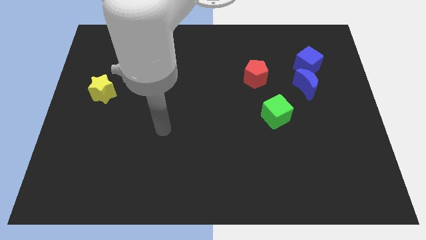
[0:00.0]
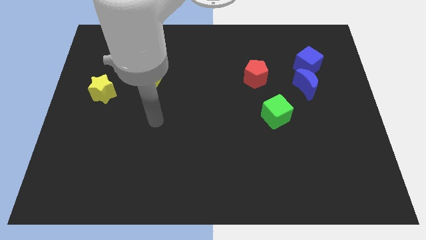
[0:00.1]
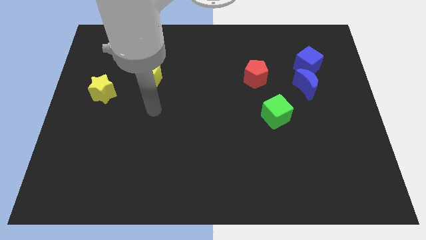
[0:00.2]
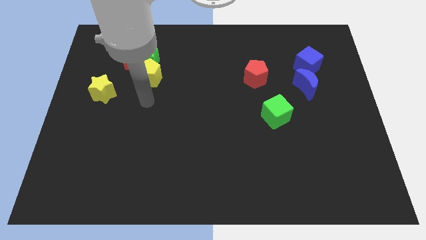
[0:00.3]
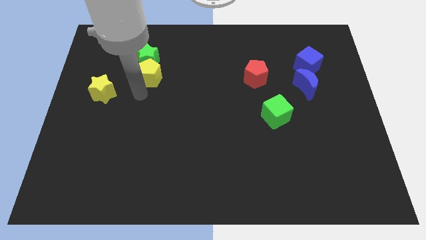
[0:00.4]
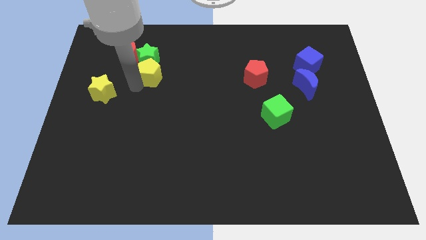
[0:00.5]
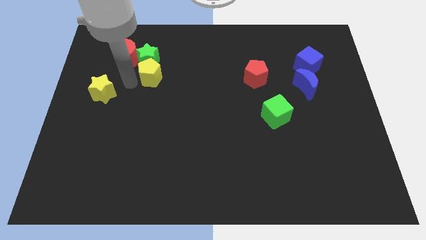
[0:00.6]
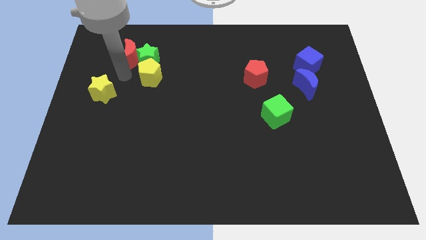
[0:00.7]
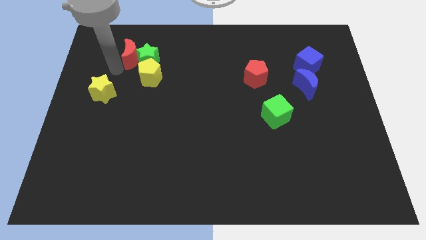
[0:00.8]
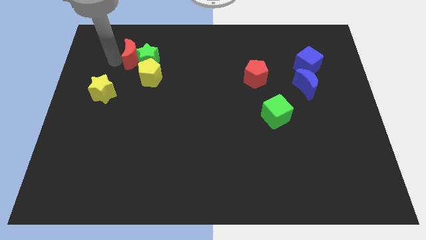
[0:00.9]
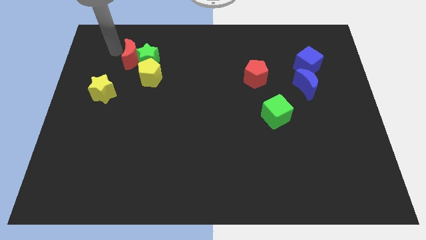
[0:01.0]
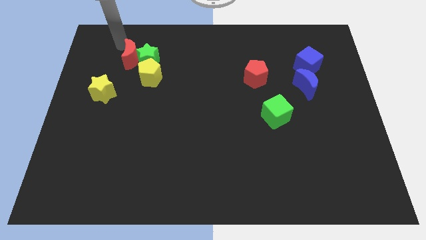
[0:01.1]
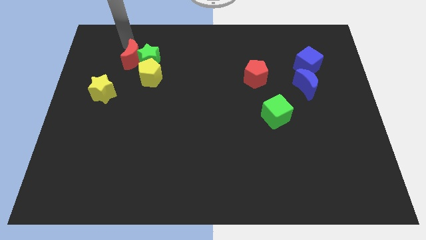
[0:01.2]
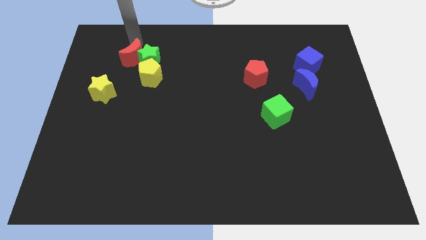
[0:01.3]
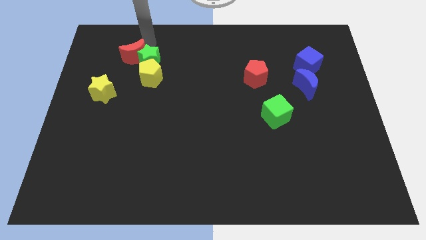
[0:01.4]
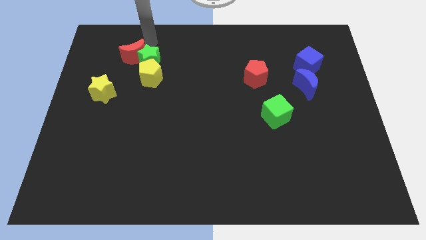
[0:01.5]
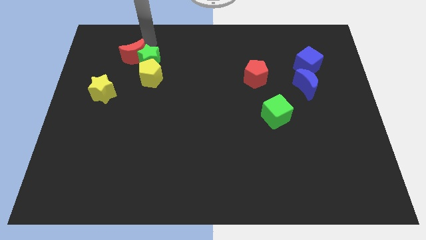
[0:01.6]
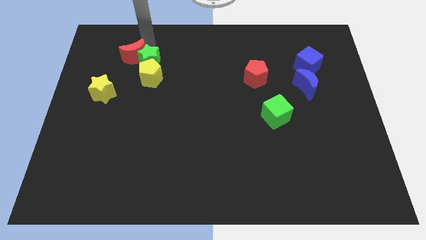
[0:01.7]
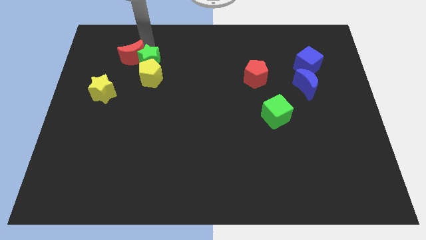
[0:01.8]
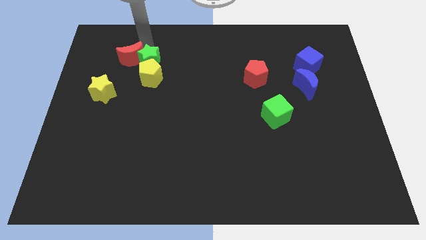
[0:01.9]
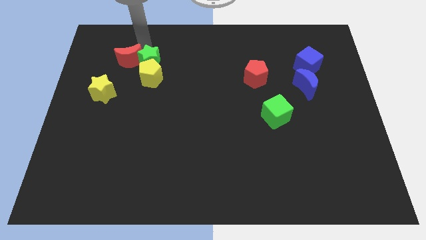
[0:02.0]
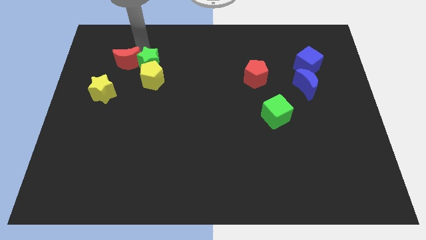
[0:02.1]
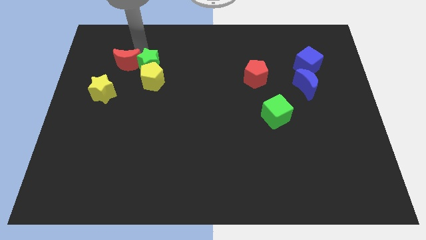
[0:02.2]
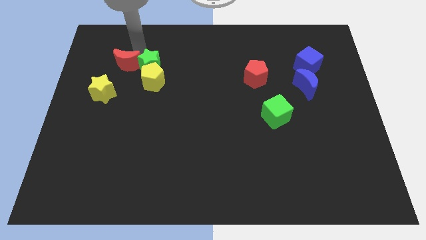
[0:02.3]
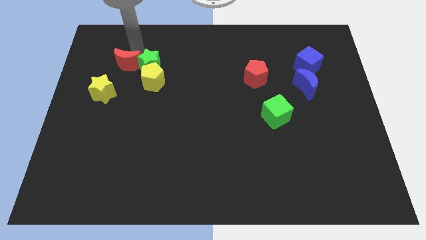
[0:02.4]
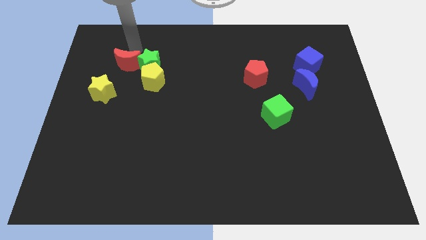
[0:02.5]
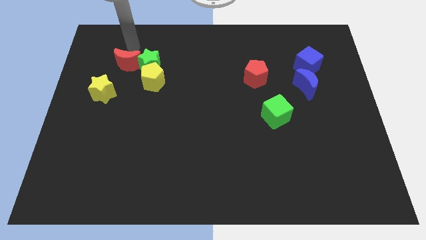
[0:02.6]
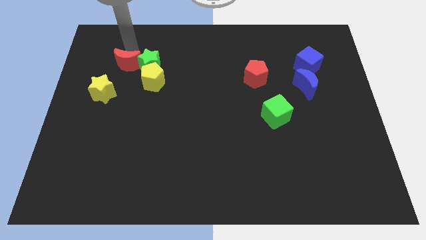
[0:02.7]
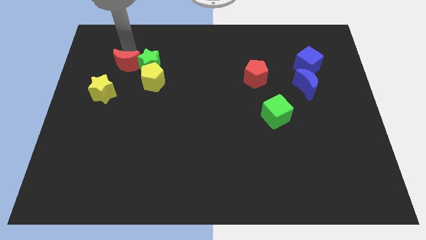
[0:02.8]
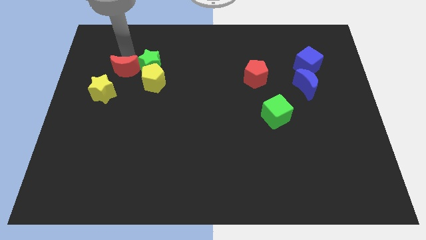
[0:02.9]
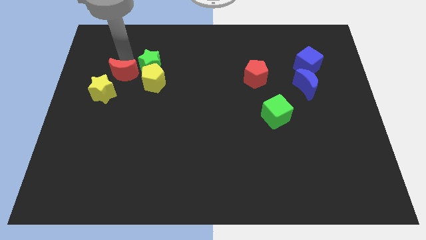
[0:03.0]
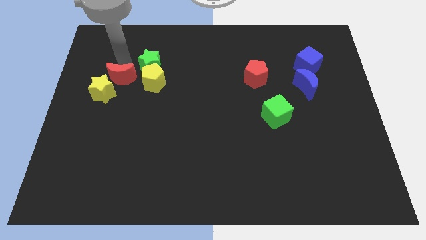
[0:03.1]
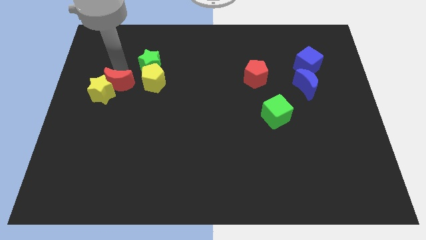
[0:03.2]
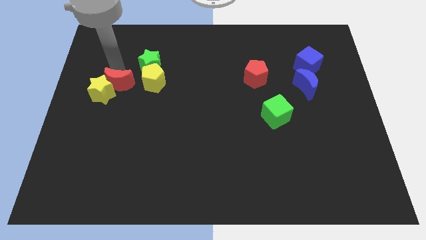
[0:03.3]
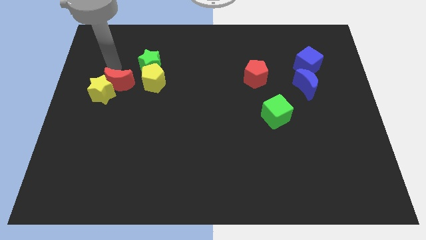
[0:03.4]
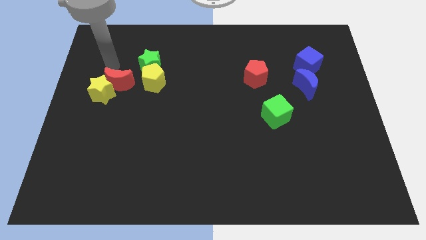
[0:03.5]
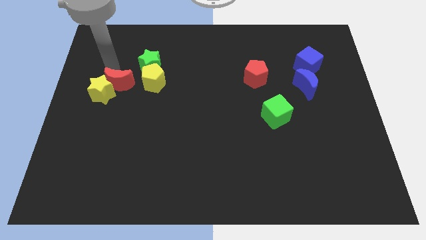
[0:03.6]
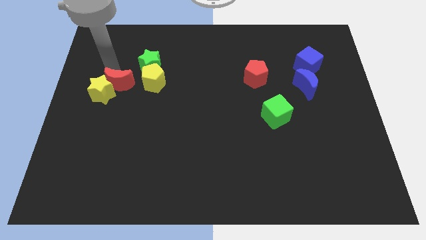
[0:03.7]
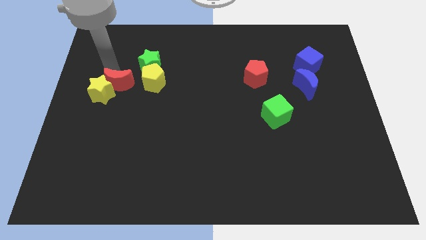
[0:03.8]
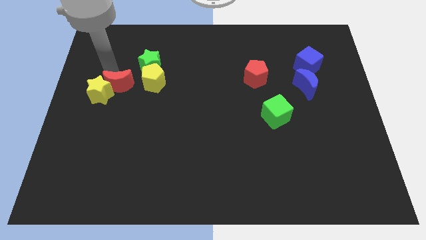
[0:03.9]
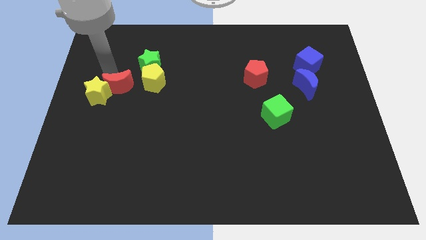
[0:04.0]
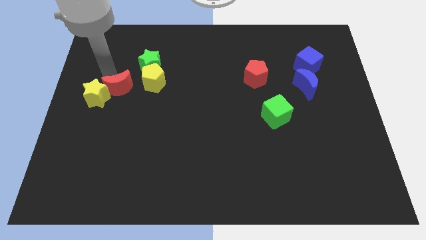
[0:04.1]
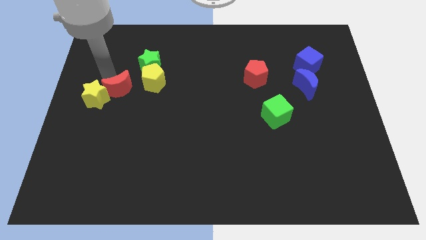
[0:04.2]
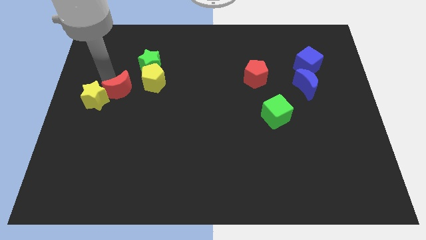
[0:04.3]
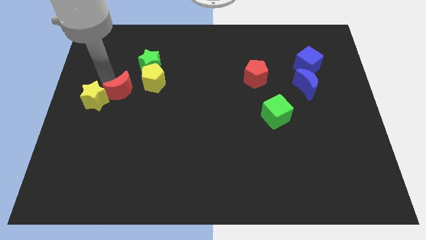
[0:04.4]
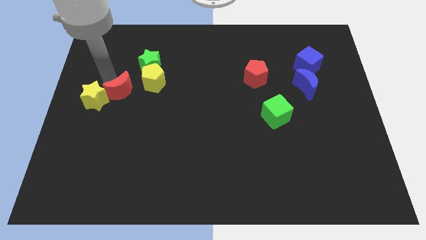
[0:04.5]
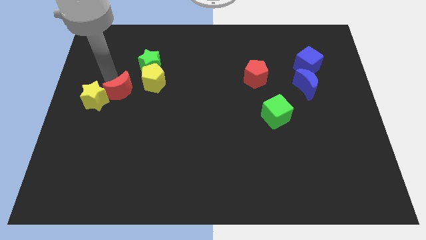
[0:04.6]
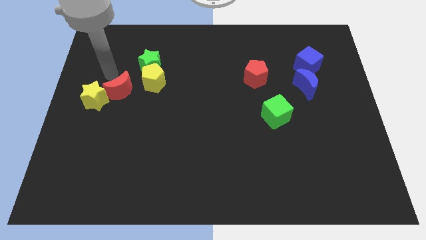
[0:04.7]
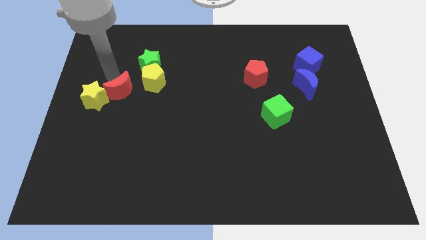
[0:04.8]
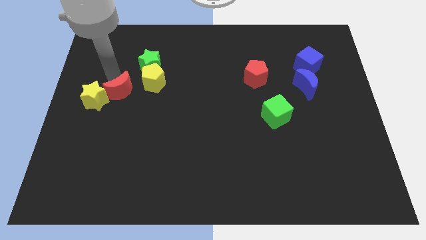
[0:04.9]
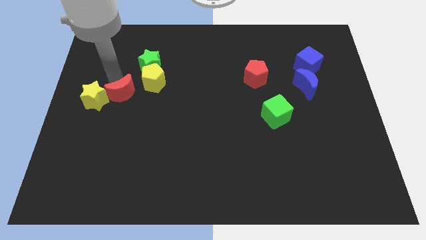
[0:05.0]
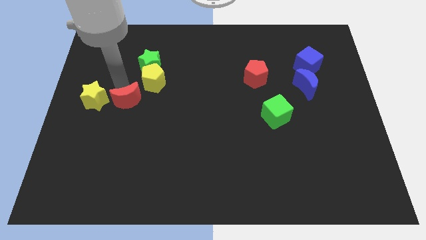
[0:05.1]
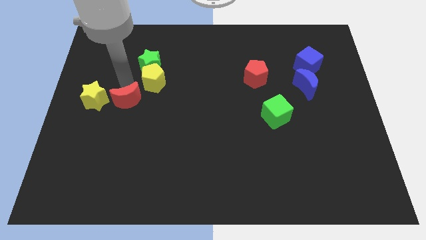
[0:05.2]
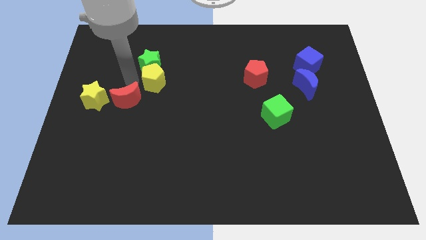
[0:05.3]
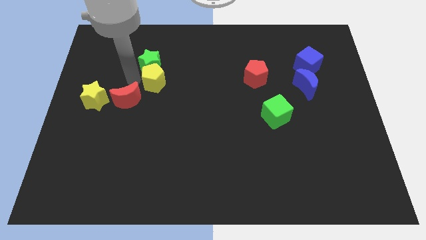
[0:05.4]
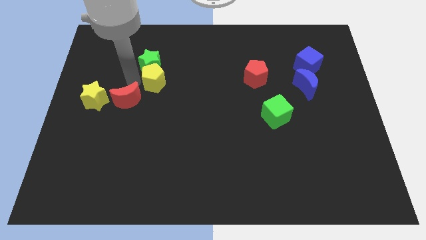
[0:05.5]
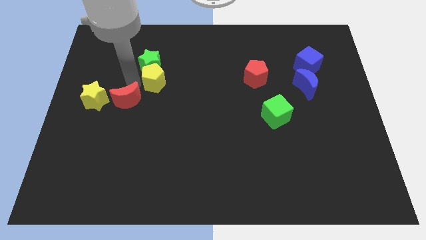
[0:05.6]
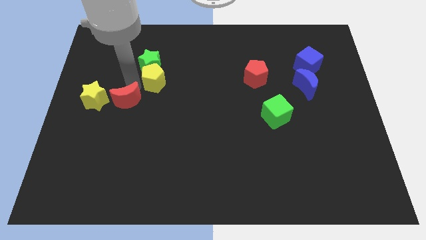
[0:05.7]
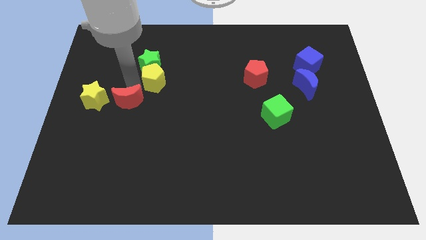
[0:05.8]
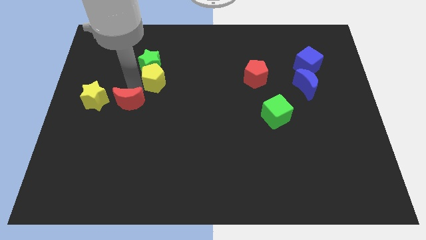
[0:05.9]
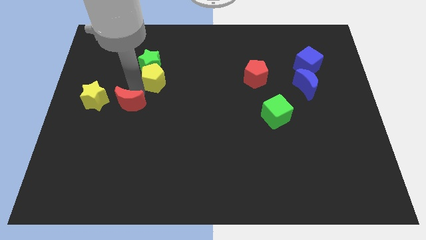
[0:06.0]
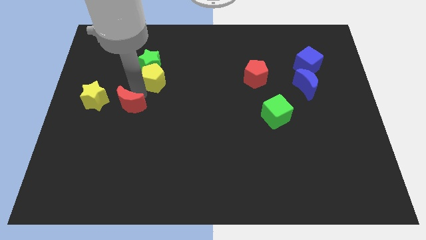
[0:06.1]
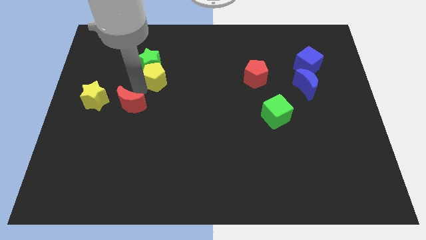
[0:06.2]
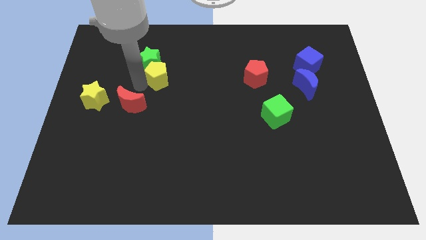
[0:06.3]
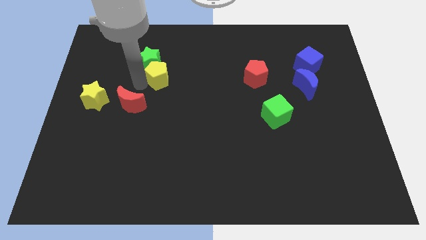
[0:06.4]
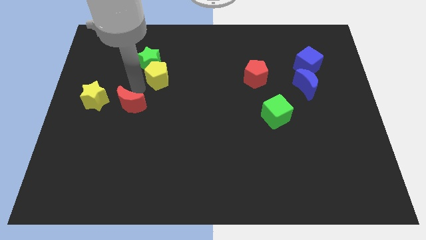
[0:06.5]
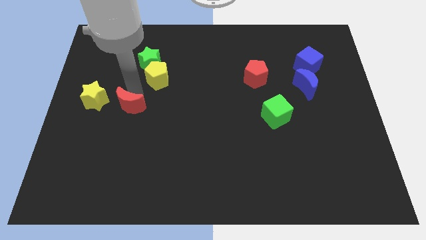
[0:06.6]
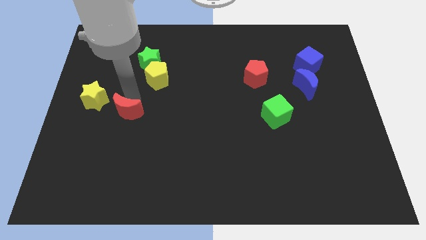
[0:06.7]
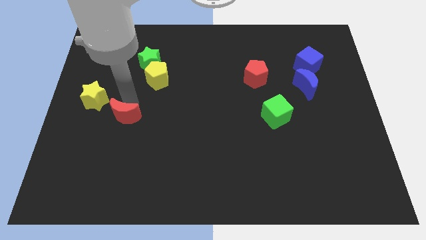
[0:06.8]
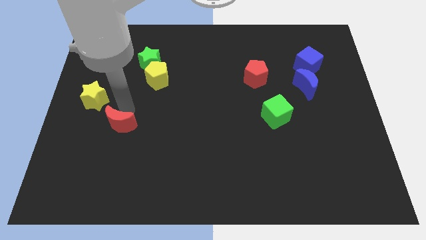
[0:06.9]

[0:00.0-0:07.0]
slide the red moon down

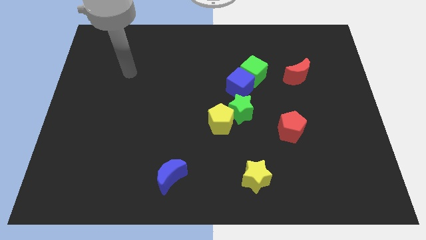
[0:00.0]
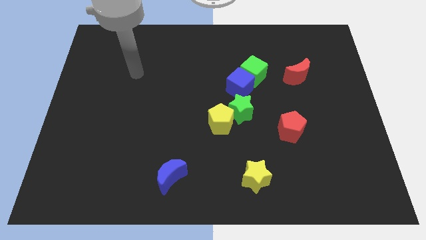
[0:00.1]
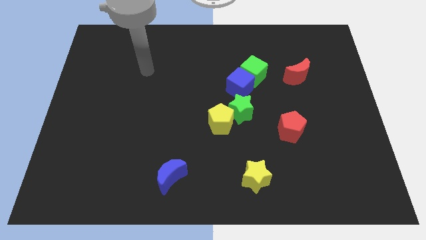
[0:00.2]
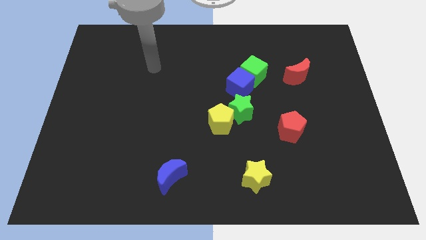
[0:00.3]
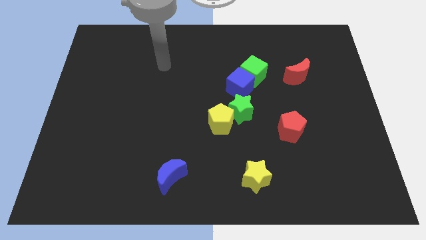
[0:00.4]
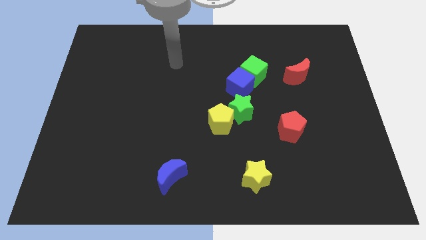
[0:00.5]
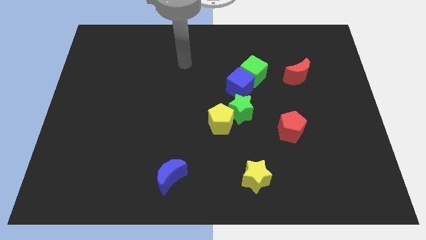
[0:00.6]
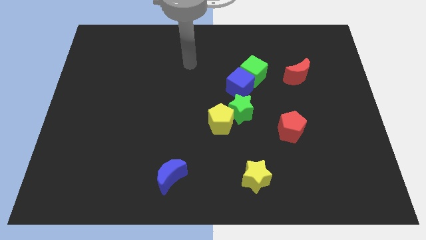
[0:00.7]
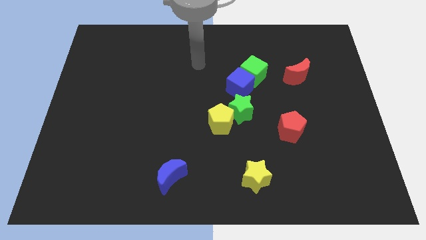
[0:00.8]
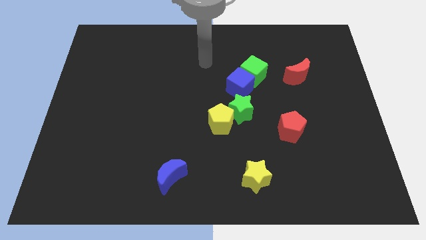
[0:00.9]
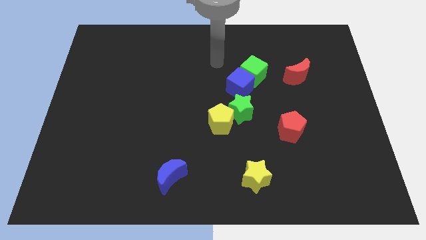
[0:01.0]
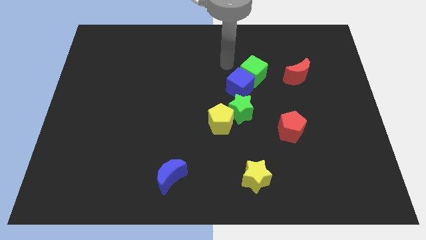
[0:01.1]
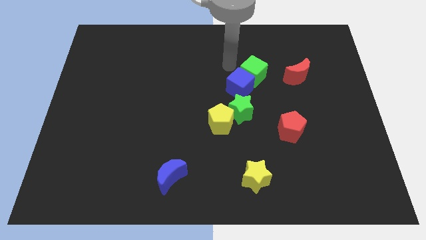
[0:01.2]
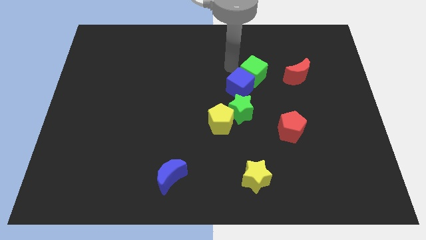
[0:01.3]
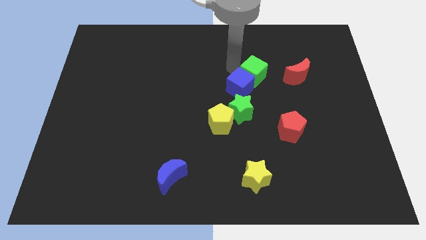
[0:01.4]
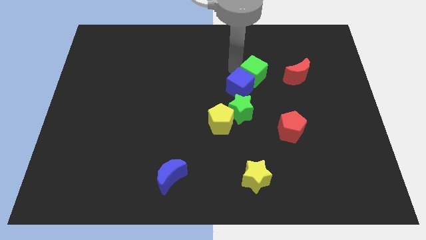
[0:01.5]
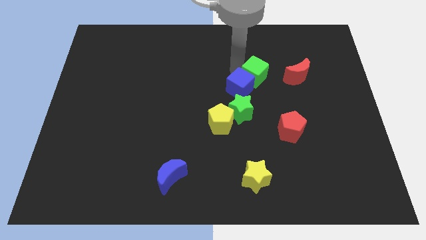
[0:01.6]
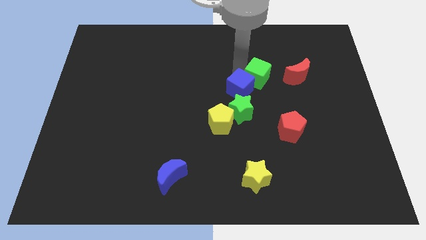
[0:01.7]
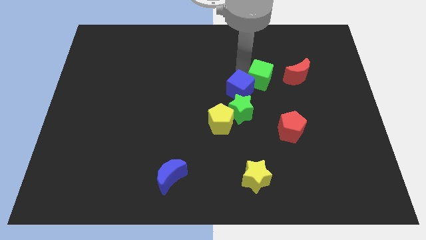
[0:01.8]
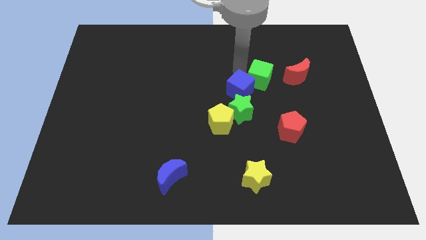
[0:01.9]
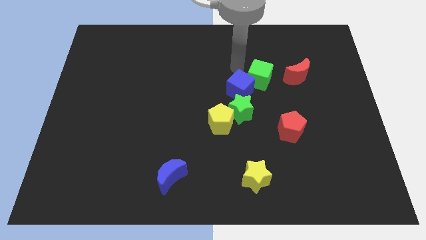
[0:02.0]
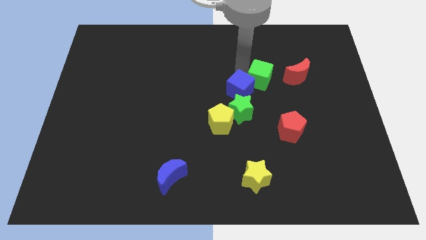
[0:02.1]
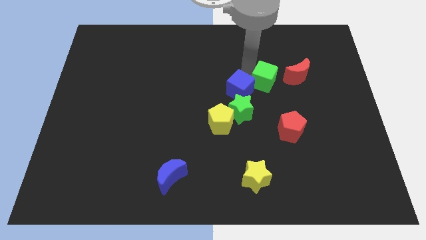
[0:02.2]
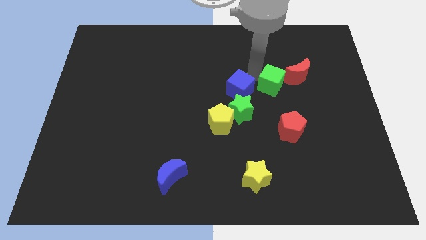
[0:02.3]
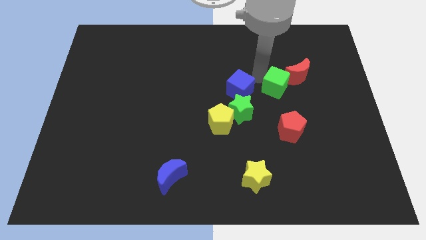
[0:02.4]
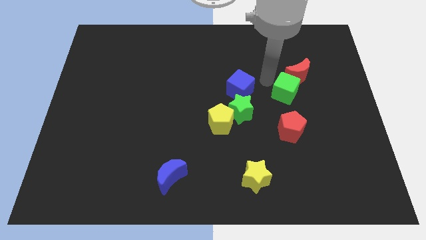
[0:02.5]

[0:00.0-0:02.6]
push the green cube a little bit down and to the right
